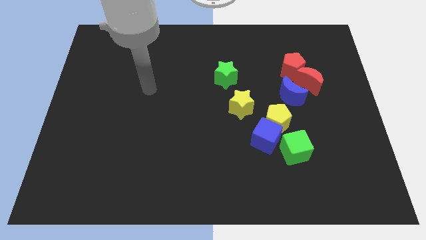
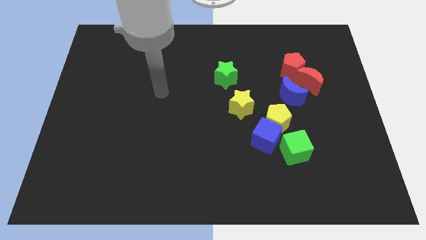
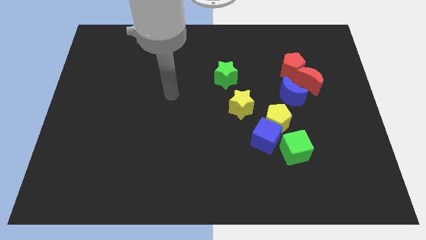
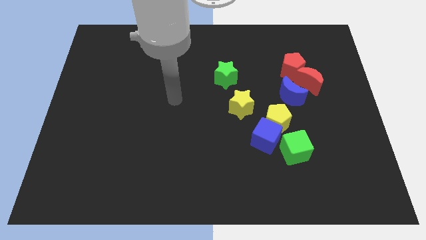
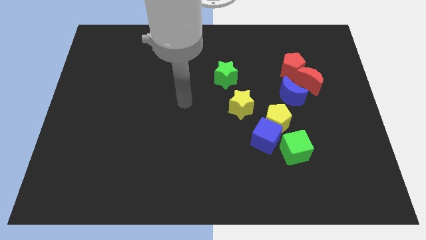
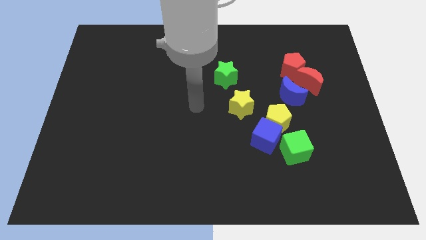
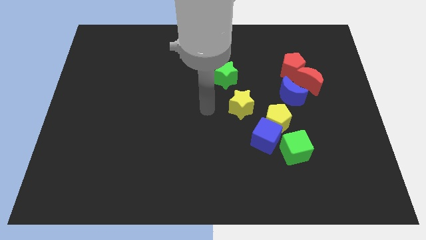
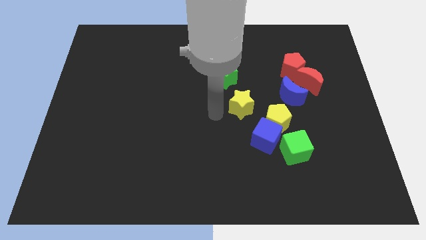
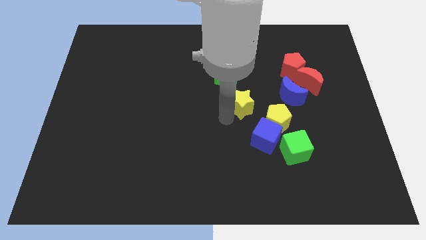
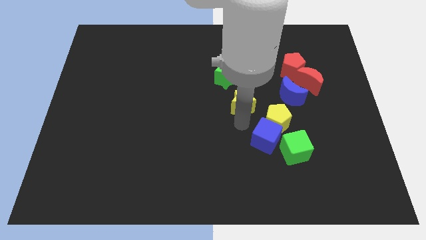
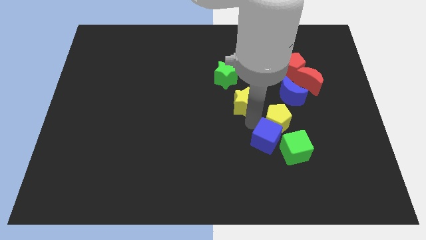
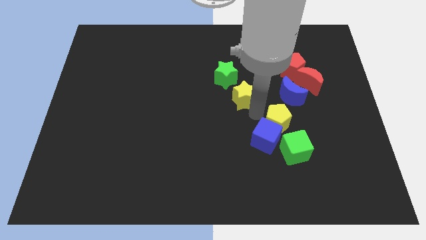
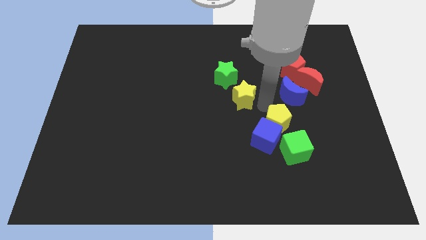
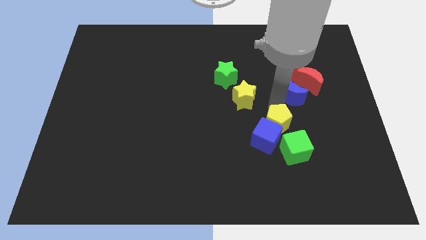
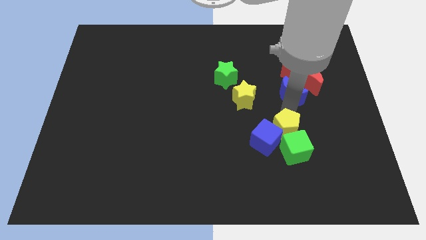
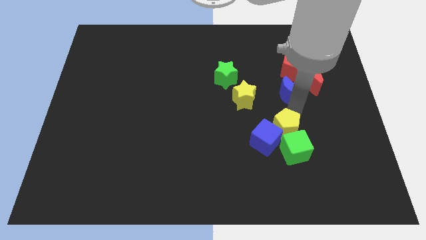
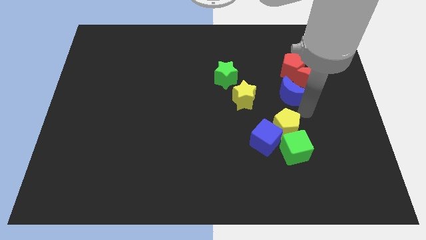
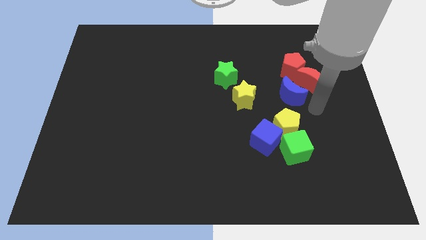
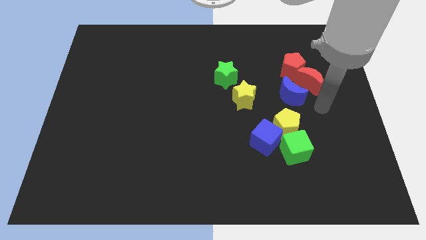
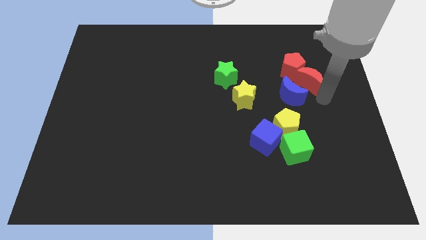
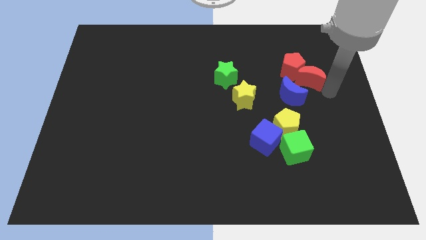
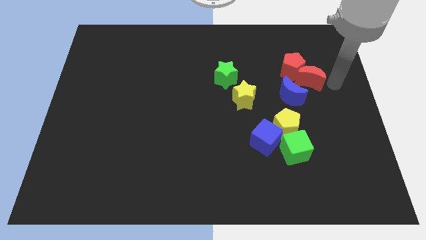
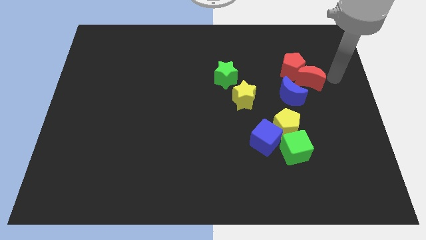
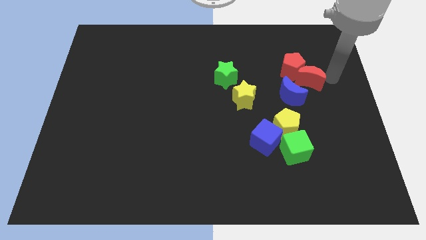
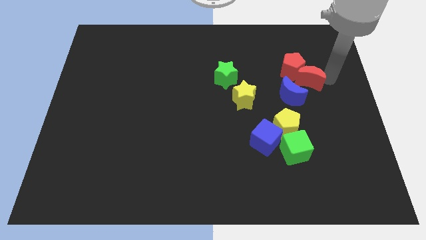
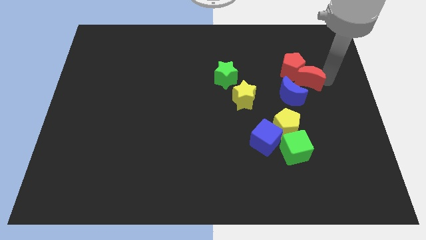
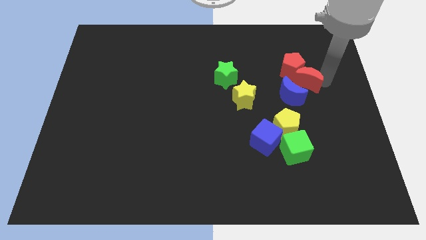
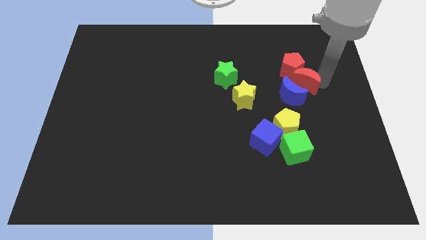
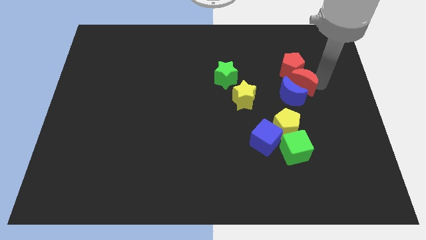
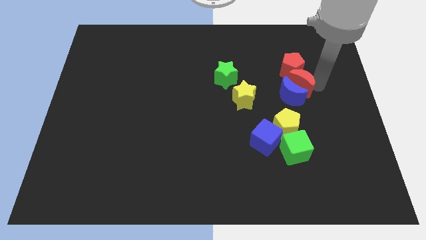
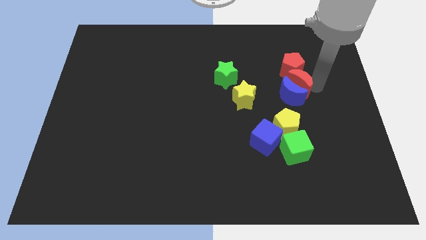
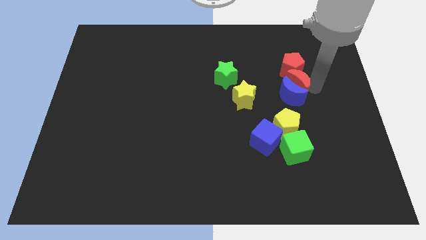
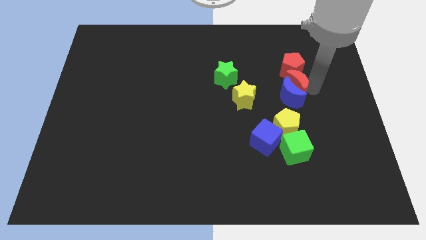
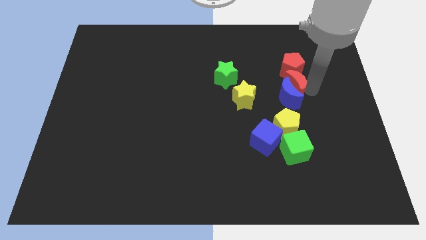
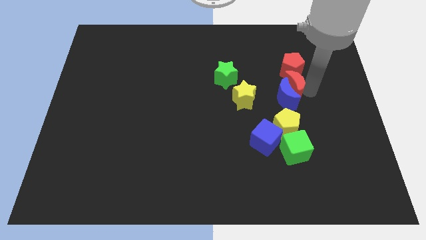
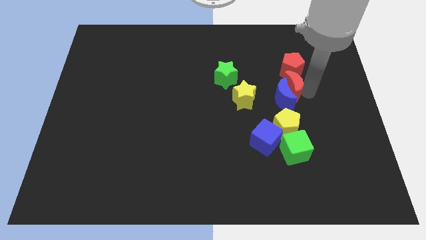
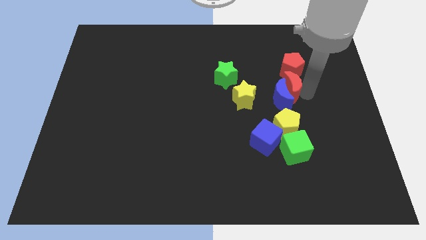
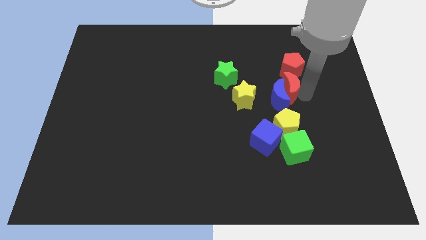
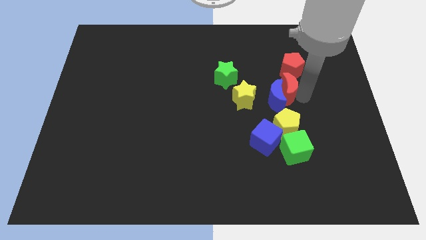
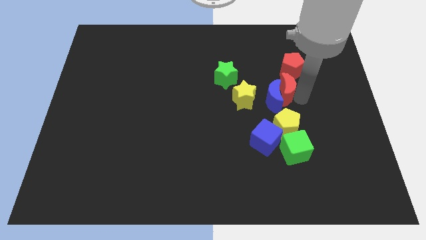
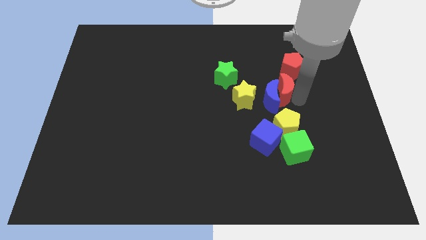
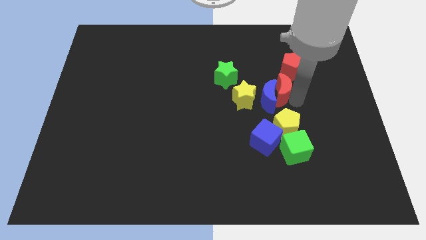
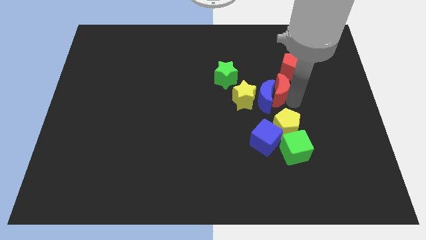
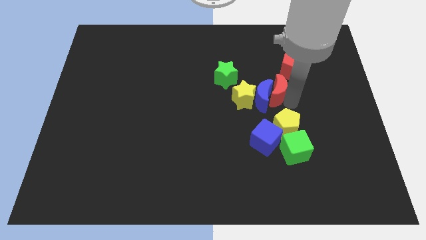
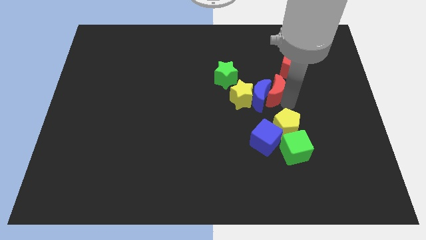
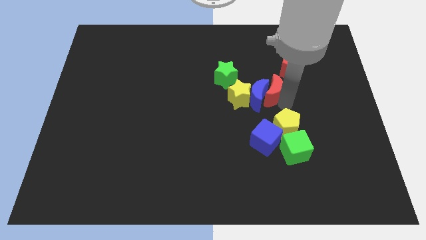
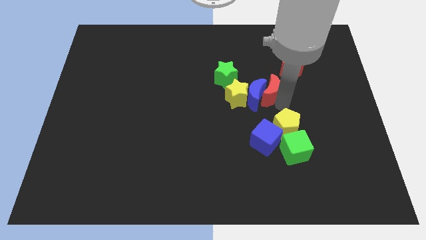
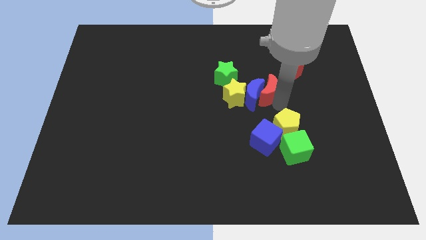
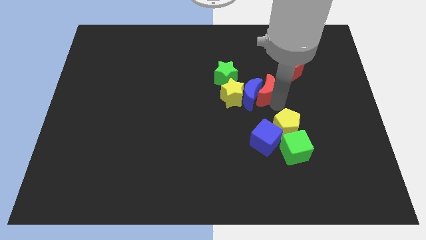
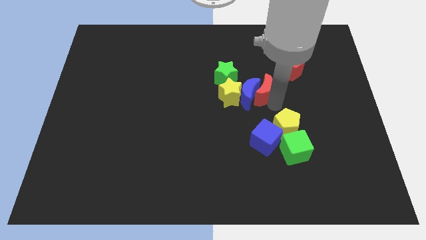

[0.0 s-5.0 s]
push the red moon to the middle
